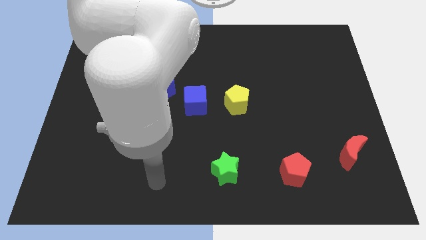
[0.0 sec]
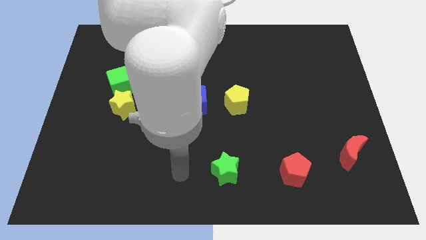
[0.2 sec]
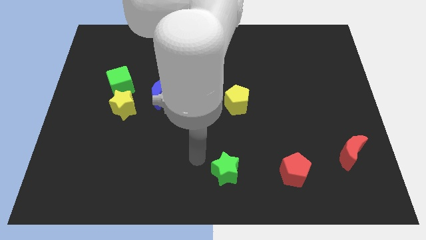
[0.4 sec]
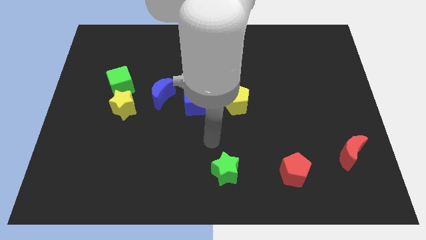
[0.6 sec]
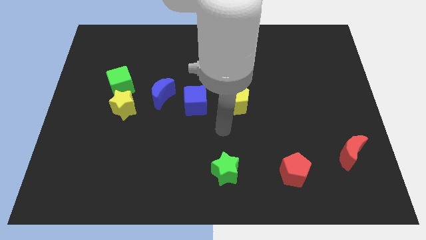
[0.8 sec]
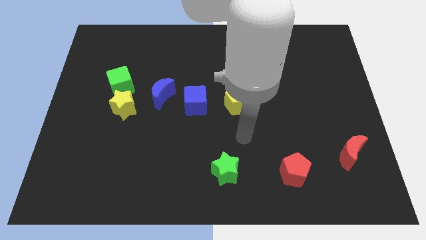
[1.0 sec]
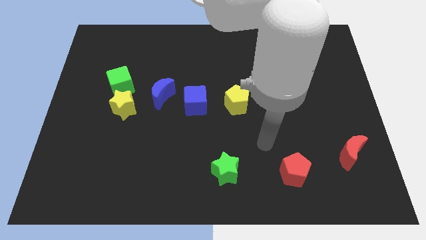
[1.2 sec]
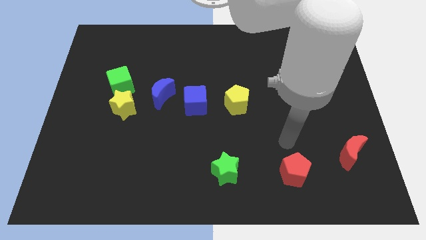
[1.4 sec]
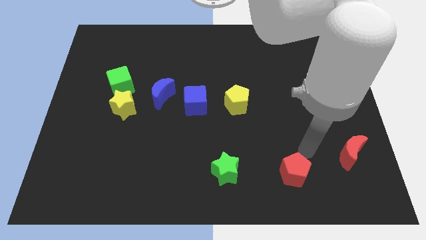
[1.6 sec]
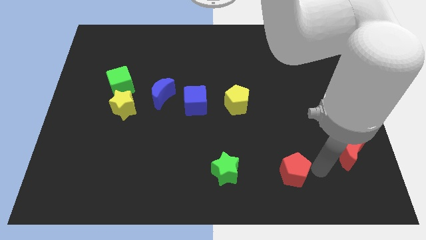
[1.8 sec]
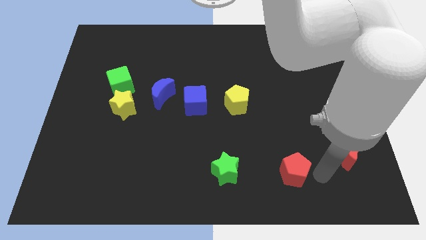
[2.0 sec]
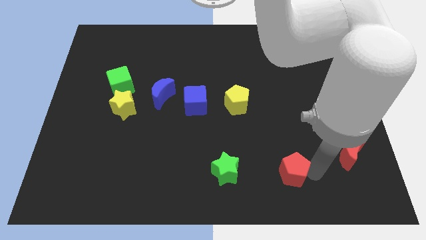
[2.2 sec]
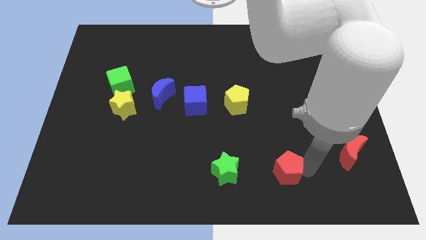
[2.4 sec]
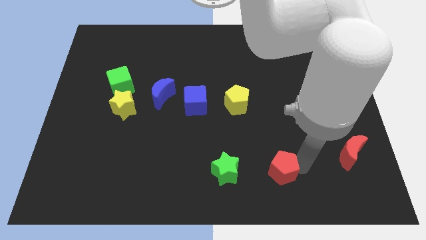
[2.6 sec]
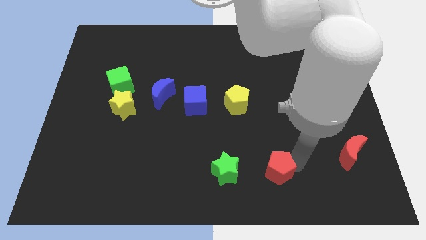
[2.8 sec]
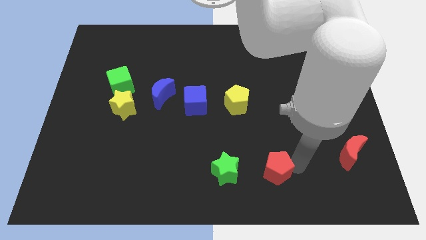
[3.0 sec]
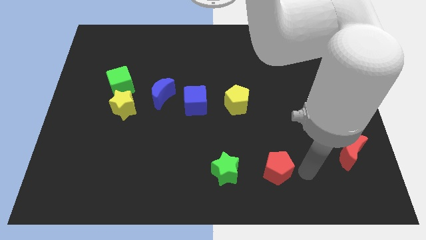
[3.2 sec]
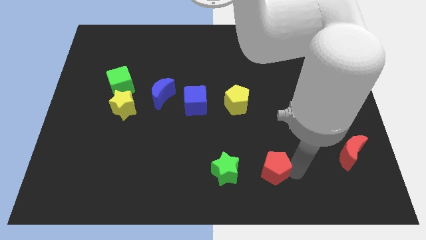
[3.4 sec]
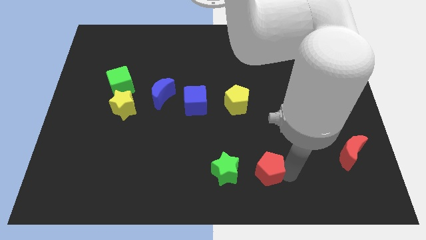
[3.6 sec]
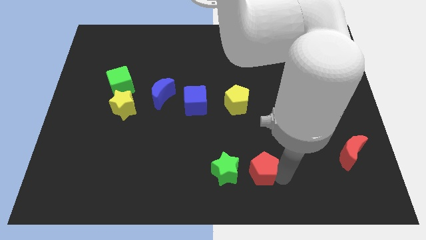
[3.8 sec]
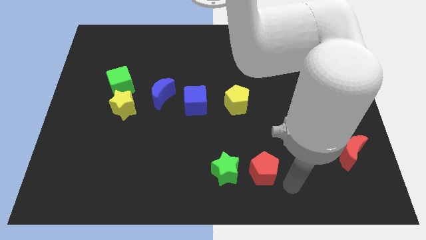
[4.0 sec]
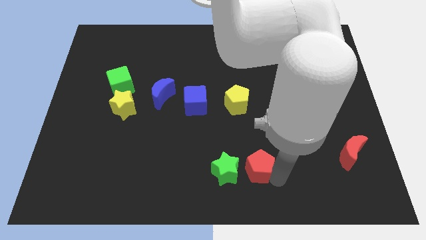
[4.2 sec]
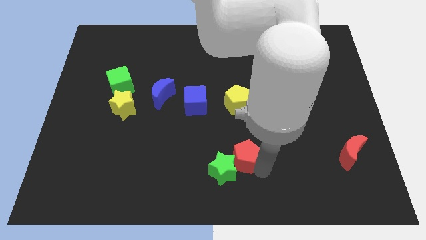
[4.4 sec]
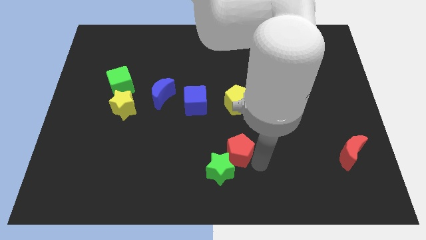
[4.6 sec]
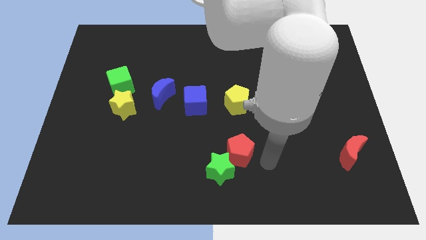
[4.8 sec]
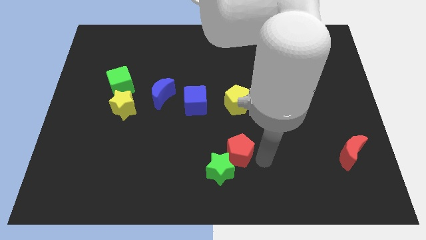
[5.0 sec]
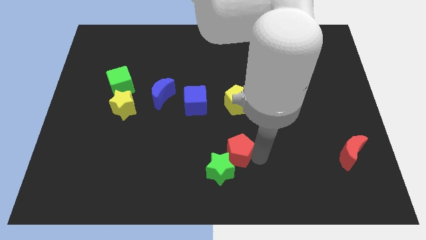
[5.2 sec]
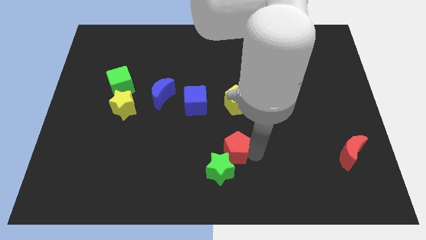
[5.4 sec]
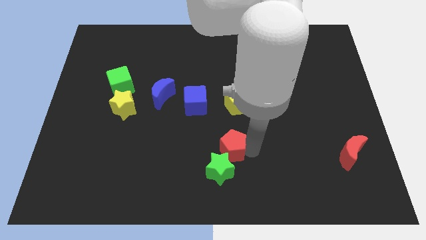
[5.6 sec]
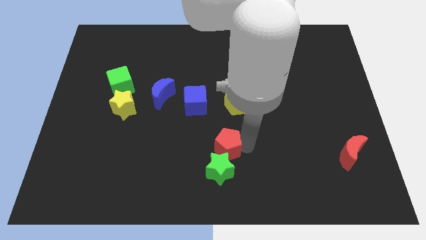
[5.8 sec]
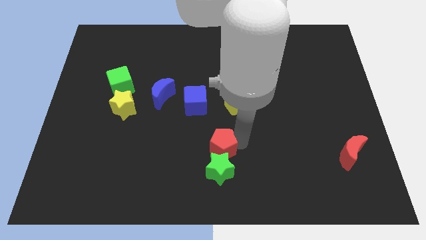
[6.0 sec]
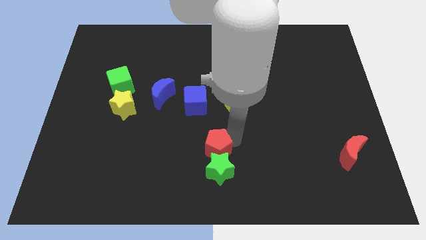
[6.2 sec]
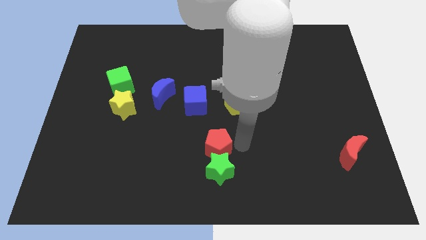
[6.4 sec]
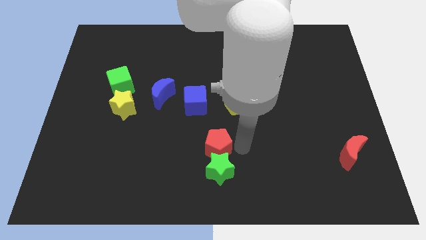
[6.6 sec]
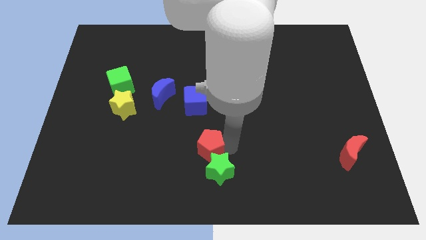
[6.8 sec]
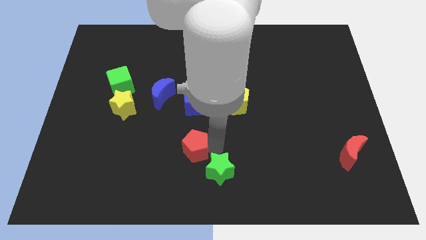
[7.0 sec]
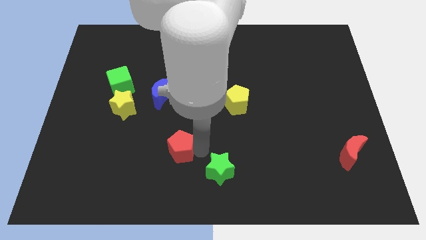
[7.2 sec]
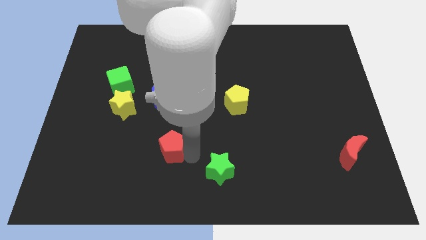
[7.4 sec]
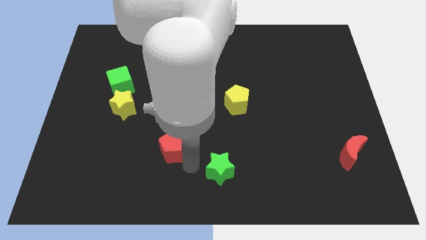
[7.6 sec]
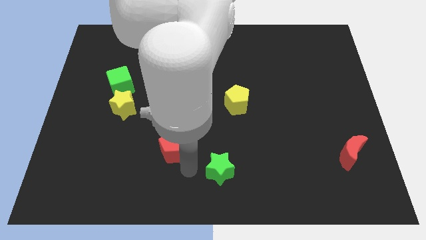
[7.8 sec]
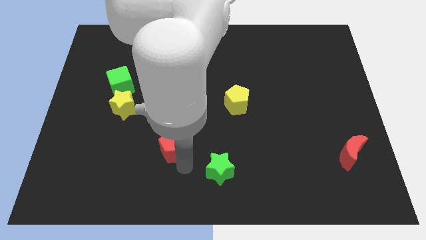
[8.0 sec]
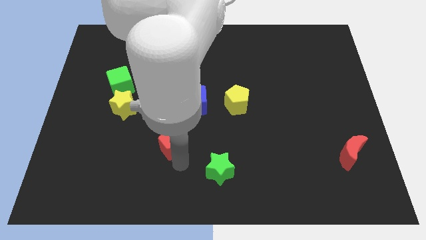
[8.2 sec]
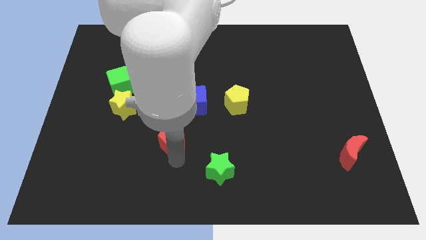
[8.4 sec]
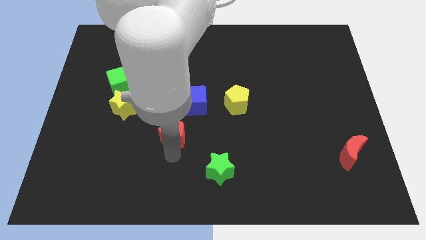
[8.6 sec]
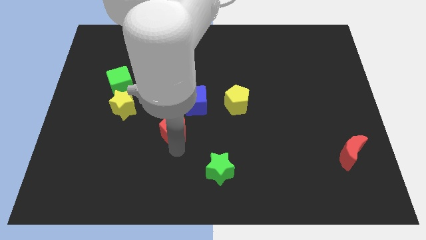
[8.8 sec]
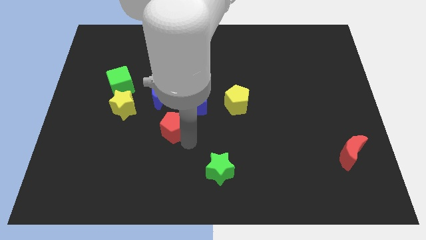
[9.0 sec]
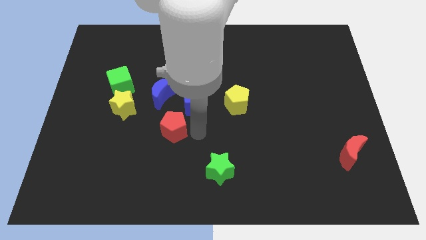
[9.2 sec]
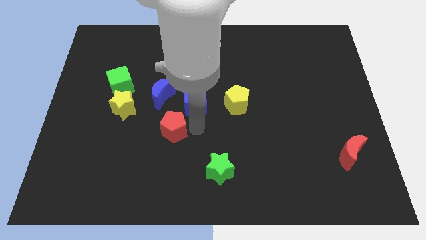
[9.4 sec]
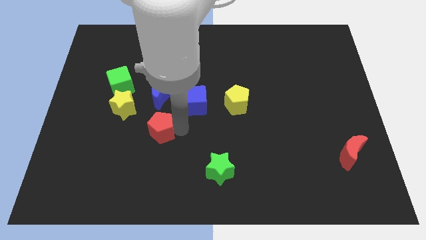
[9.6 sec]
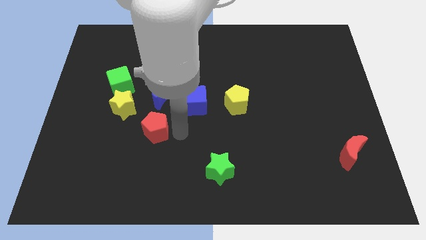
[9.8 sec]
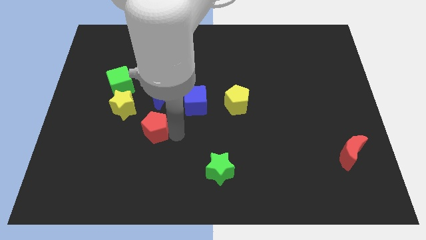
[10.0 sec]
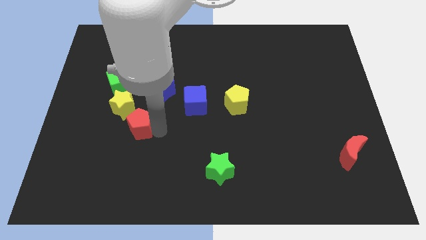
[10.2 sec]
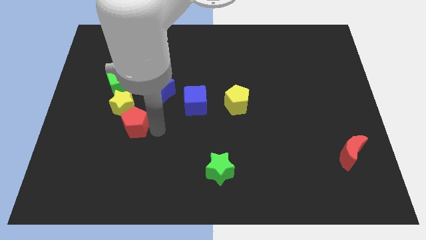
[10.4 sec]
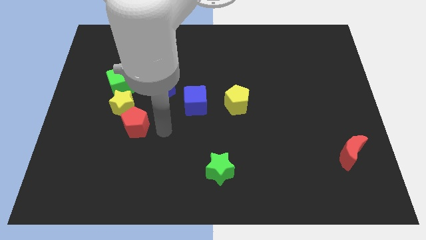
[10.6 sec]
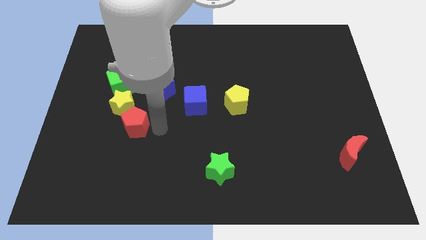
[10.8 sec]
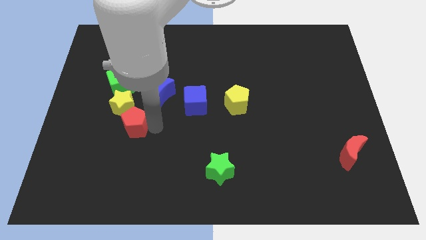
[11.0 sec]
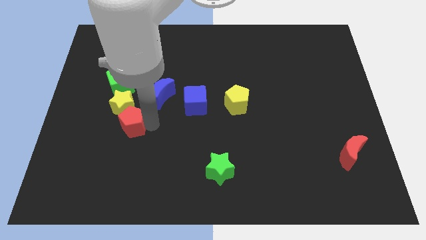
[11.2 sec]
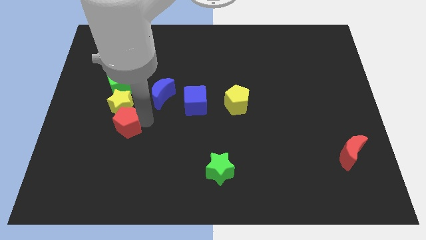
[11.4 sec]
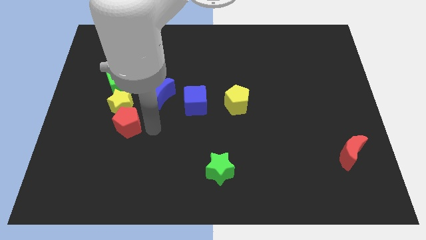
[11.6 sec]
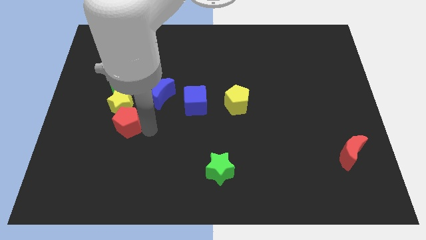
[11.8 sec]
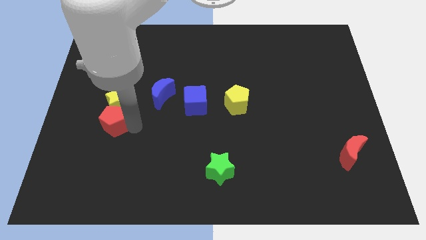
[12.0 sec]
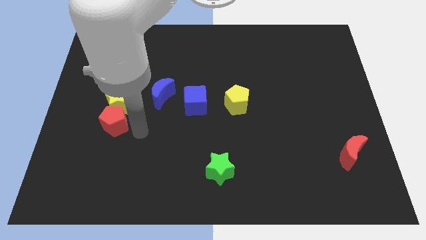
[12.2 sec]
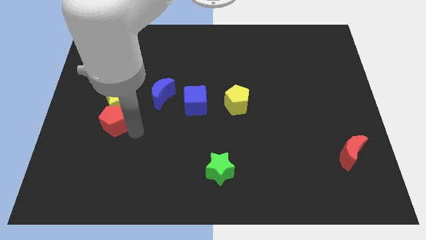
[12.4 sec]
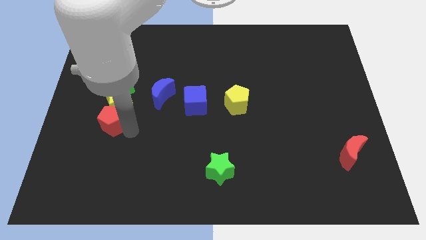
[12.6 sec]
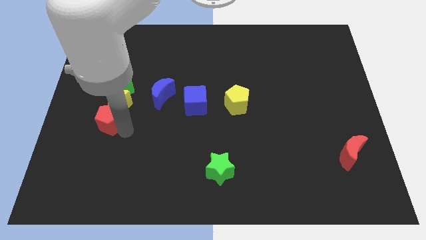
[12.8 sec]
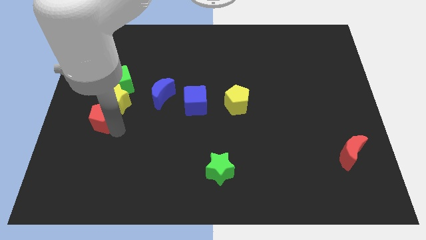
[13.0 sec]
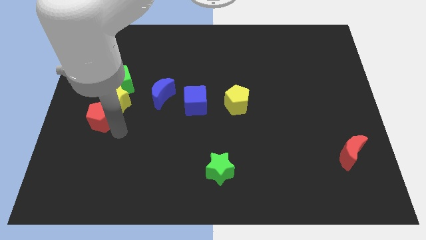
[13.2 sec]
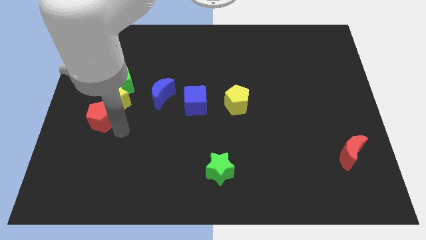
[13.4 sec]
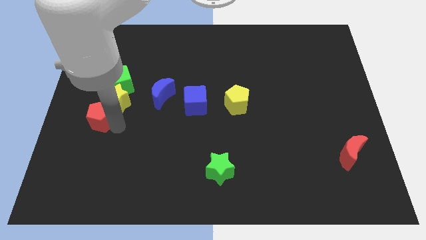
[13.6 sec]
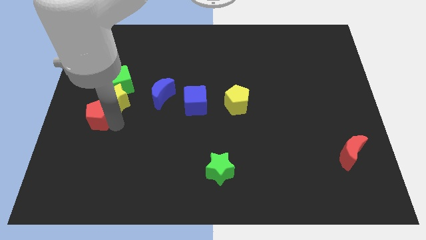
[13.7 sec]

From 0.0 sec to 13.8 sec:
put the red pentagon to the left side
